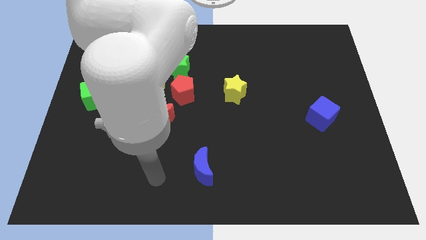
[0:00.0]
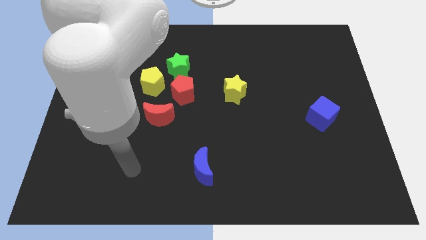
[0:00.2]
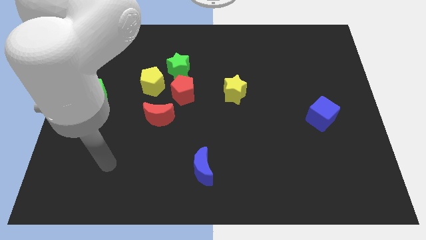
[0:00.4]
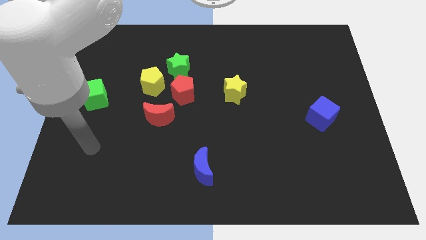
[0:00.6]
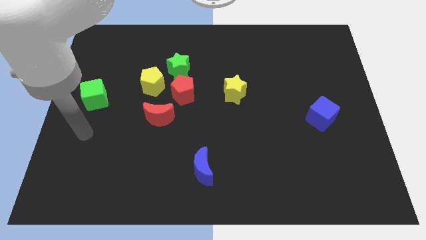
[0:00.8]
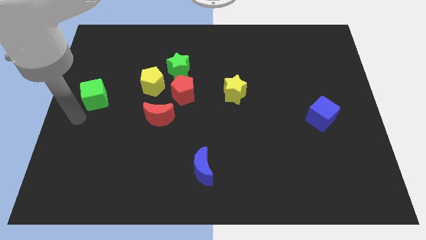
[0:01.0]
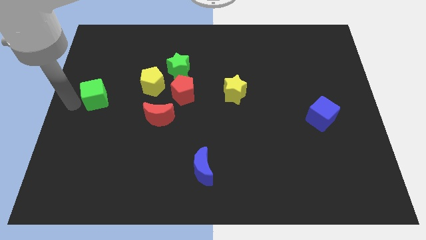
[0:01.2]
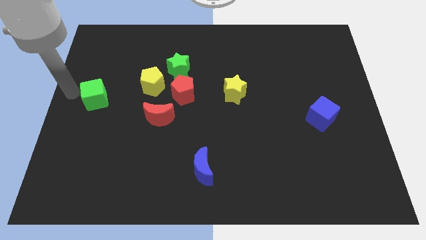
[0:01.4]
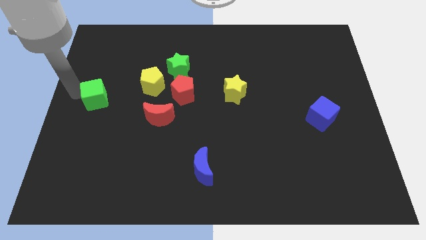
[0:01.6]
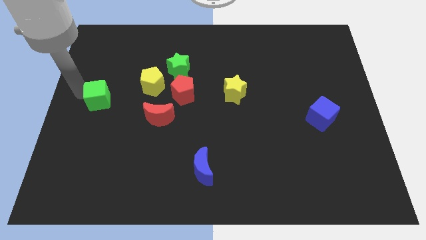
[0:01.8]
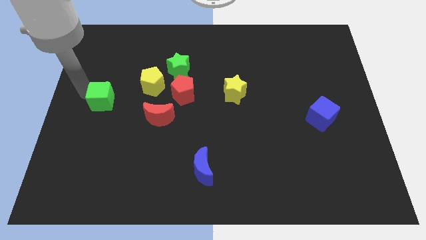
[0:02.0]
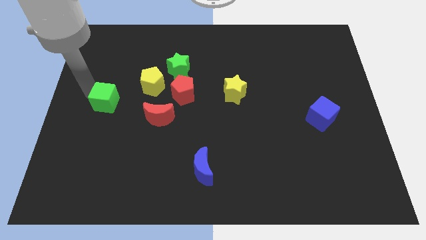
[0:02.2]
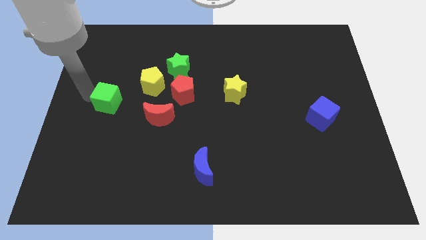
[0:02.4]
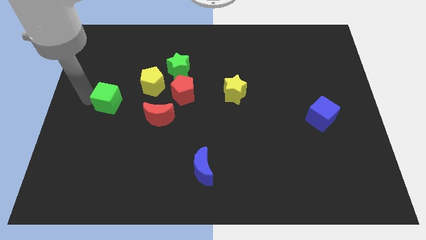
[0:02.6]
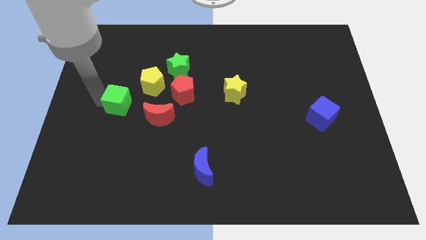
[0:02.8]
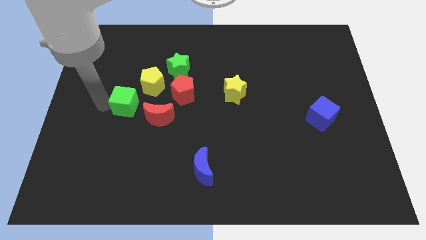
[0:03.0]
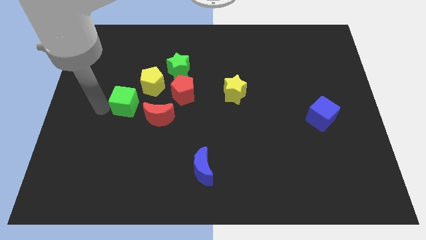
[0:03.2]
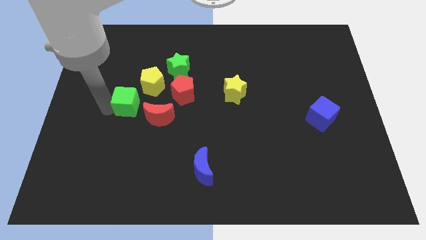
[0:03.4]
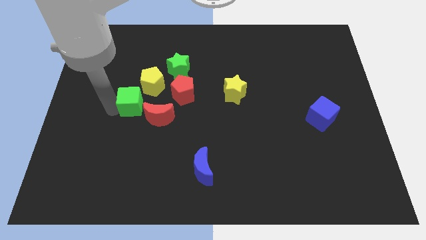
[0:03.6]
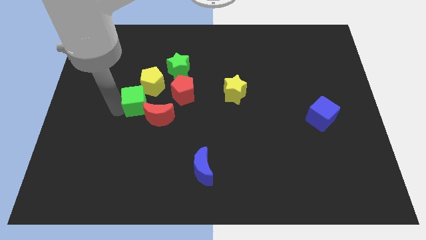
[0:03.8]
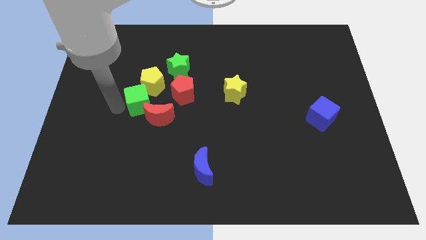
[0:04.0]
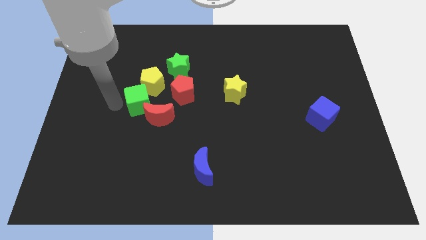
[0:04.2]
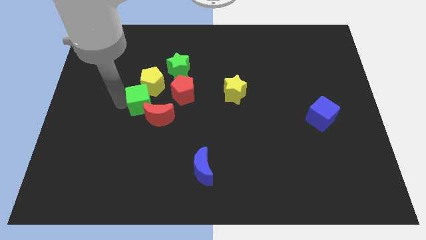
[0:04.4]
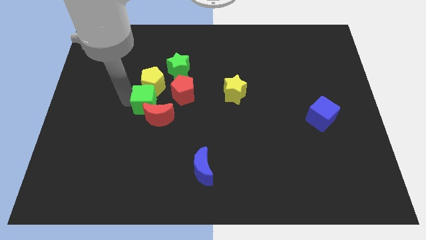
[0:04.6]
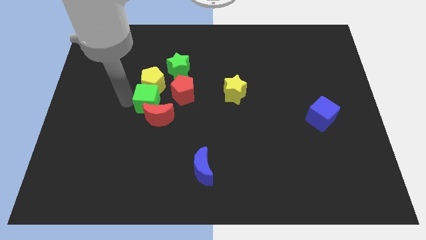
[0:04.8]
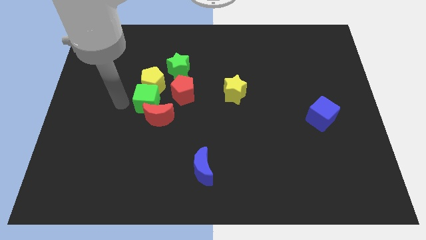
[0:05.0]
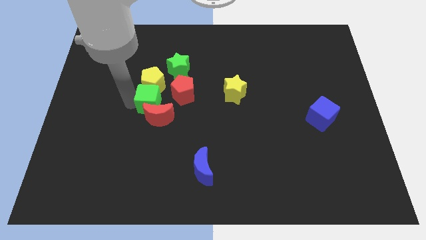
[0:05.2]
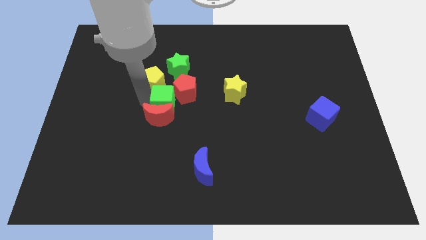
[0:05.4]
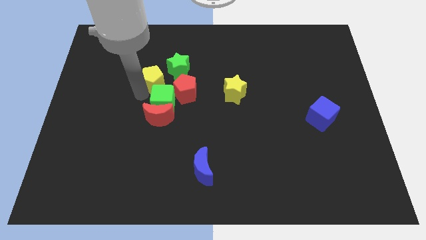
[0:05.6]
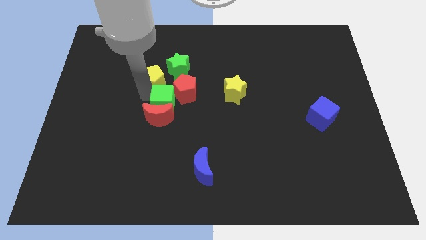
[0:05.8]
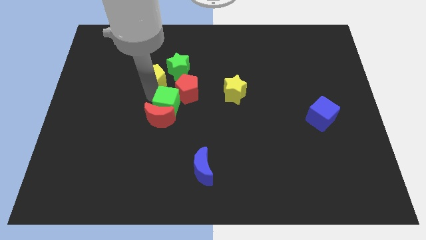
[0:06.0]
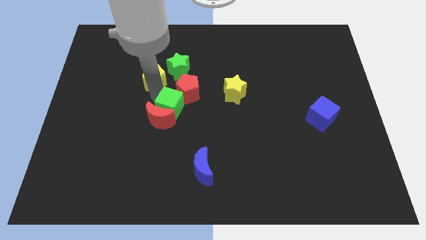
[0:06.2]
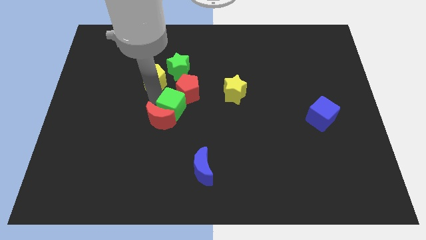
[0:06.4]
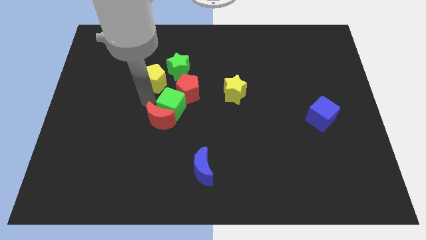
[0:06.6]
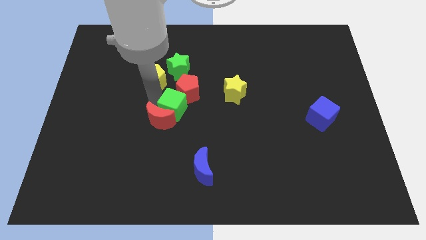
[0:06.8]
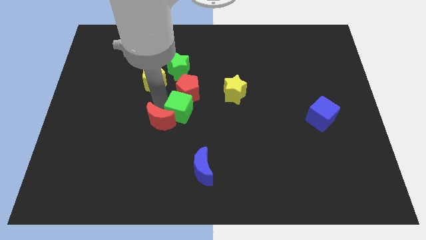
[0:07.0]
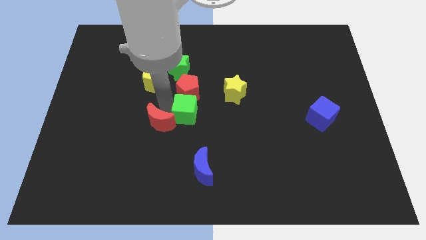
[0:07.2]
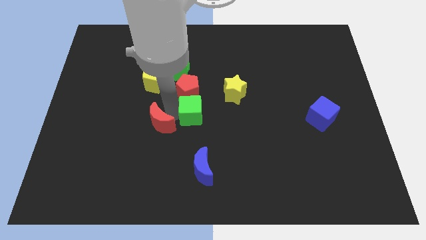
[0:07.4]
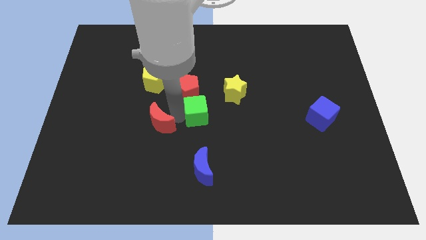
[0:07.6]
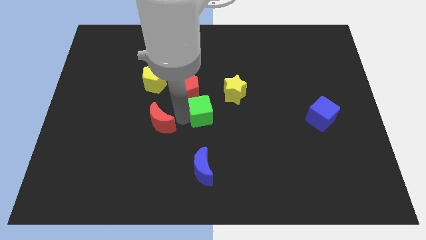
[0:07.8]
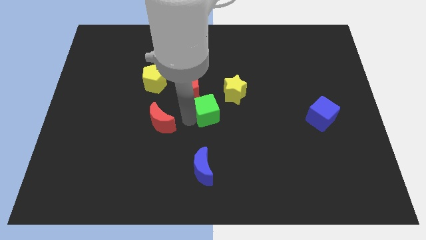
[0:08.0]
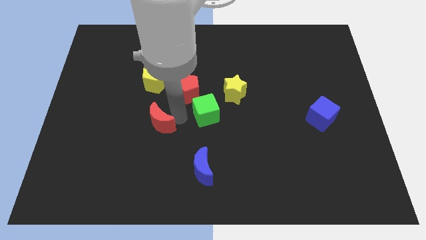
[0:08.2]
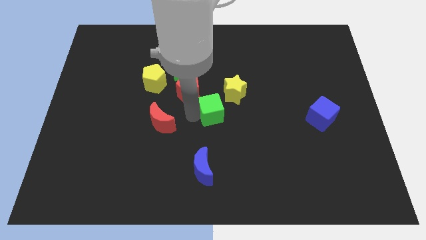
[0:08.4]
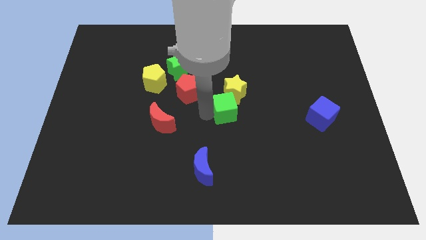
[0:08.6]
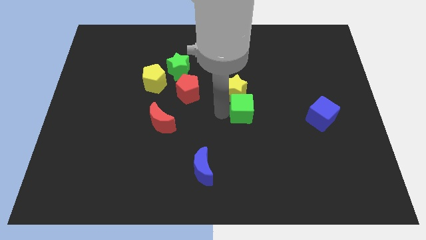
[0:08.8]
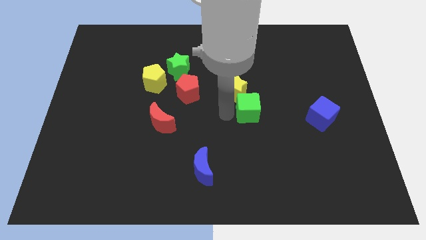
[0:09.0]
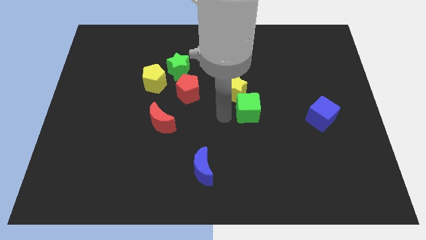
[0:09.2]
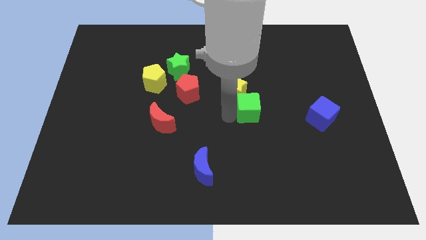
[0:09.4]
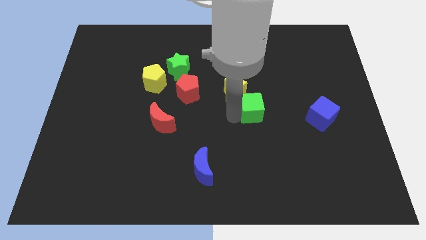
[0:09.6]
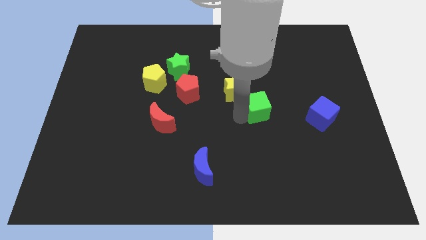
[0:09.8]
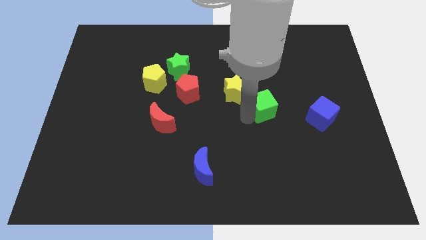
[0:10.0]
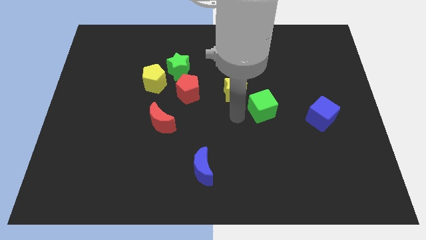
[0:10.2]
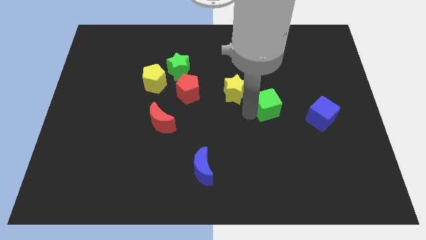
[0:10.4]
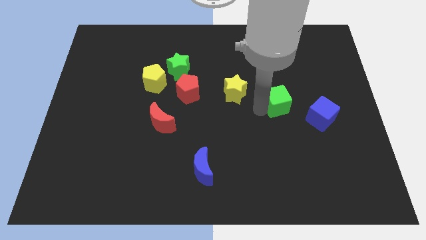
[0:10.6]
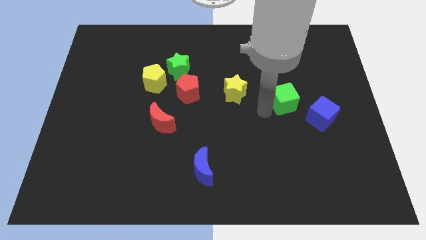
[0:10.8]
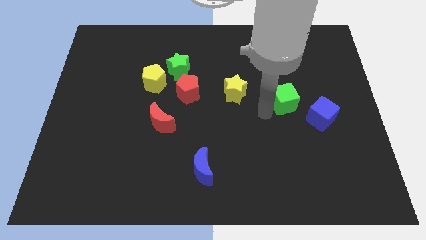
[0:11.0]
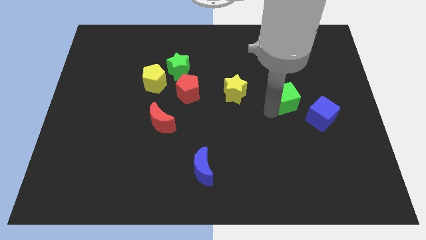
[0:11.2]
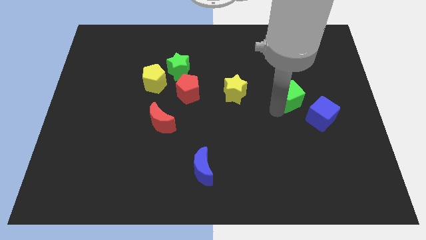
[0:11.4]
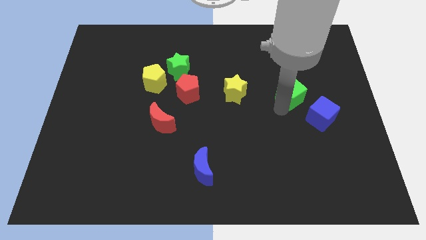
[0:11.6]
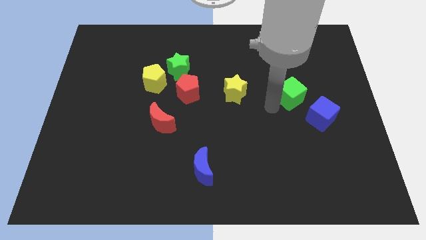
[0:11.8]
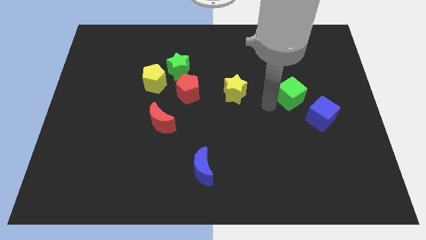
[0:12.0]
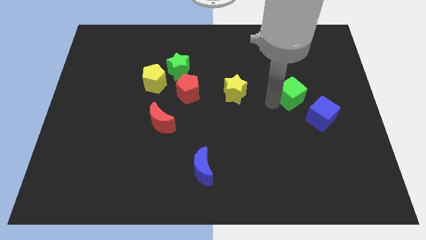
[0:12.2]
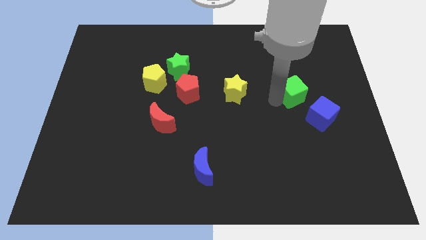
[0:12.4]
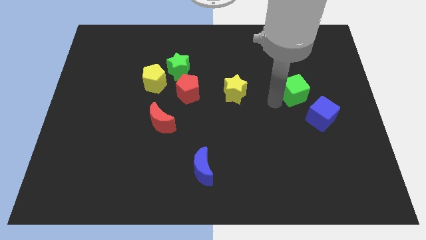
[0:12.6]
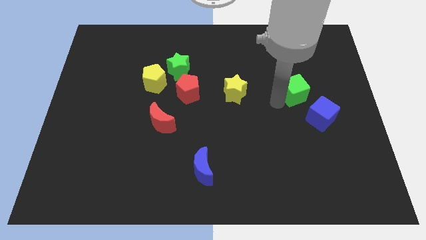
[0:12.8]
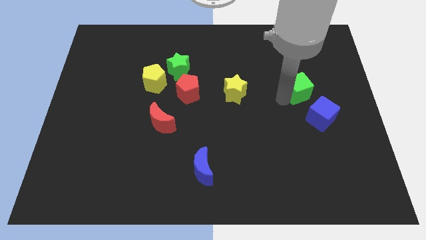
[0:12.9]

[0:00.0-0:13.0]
move the green cube to the top side of the blue cube

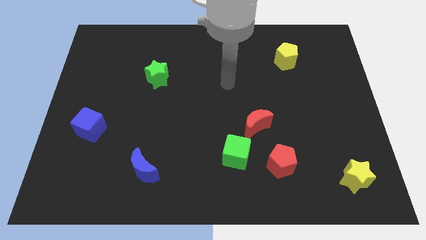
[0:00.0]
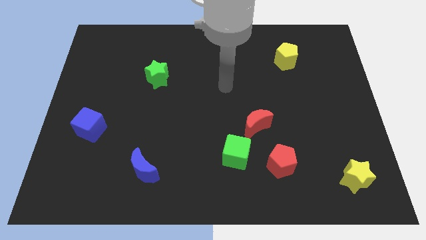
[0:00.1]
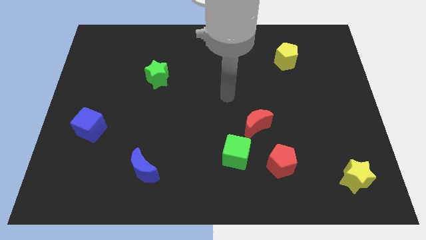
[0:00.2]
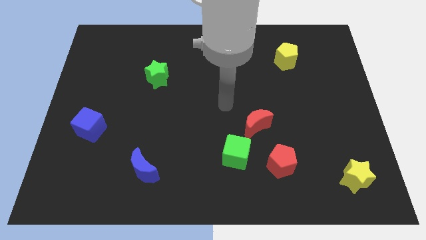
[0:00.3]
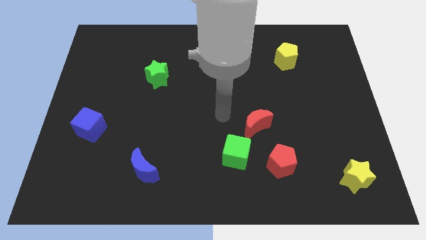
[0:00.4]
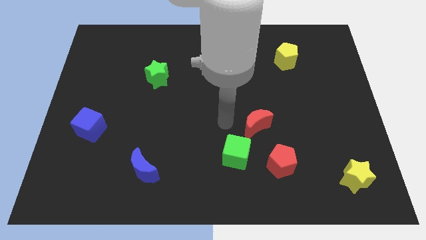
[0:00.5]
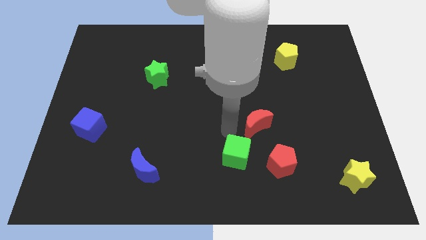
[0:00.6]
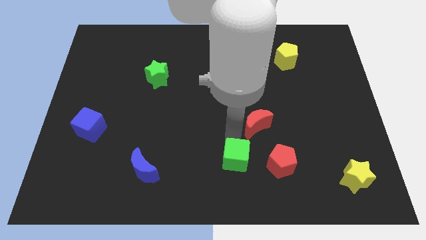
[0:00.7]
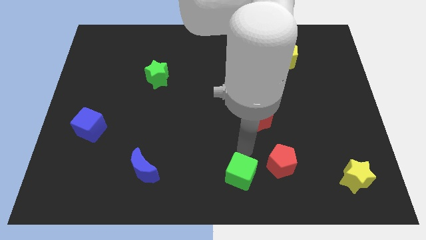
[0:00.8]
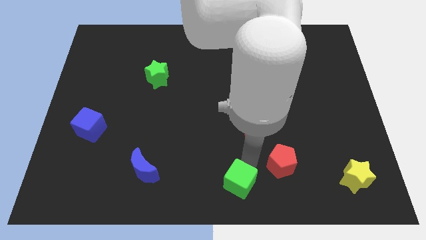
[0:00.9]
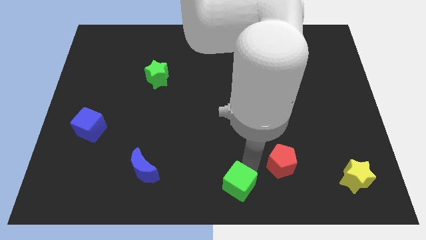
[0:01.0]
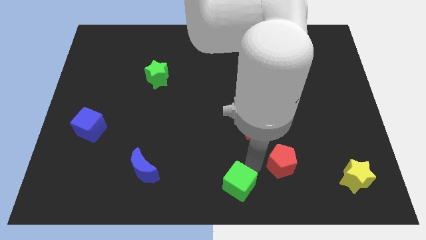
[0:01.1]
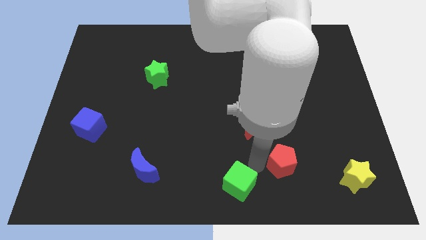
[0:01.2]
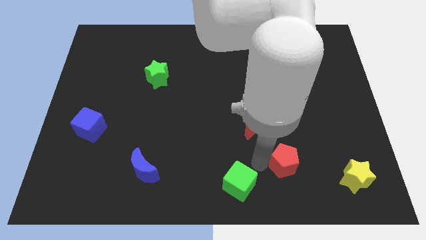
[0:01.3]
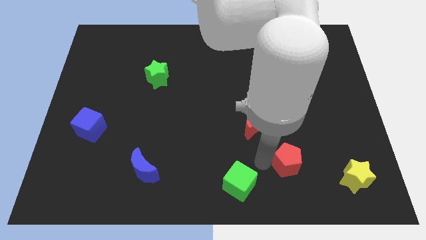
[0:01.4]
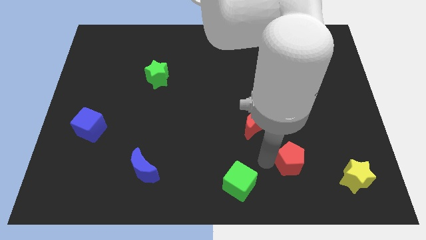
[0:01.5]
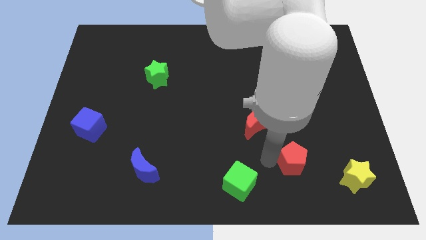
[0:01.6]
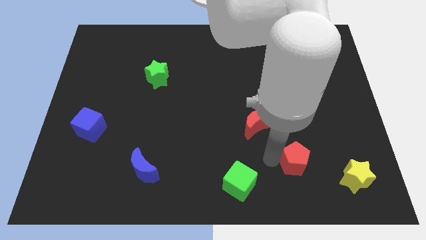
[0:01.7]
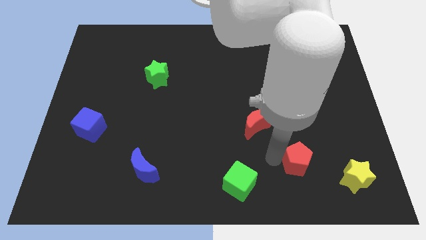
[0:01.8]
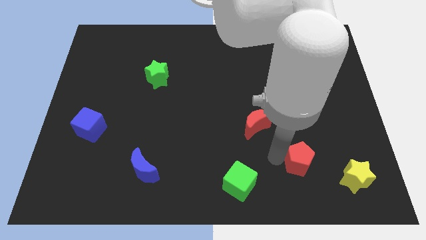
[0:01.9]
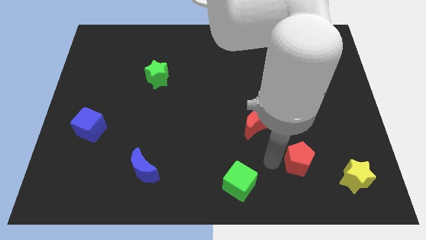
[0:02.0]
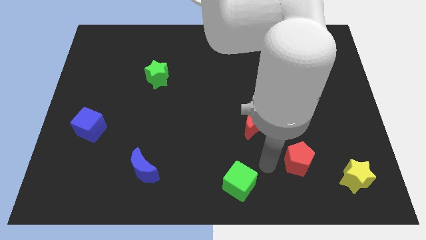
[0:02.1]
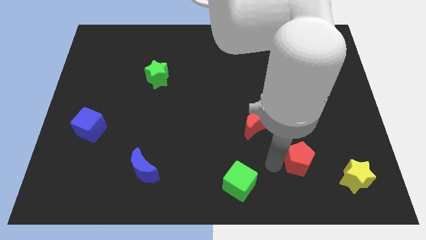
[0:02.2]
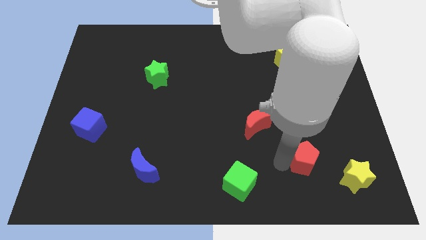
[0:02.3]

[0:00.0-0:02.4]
push the red pentagon diagonally up and to the left of the yellow star
